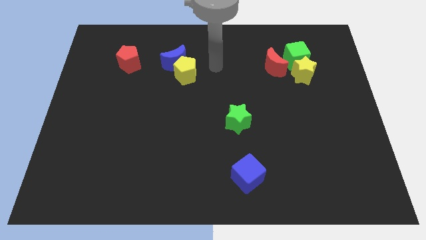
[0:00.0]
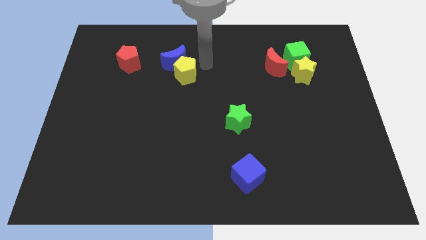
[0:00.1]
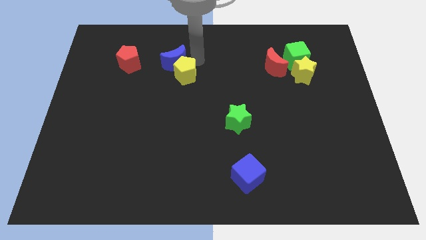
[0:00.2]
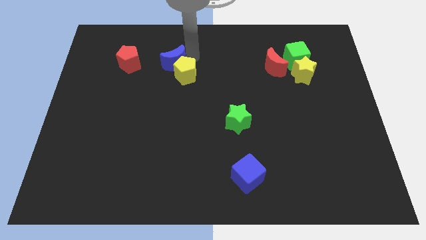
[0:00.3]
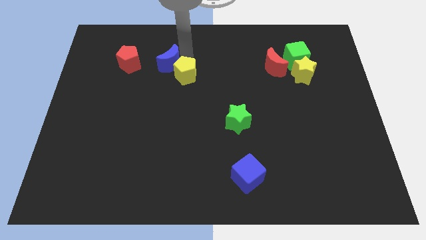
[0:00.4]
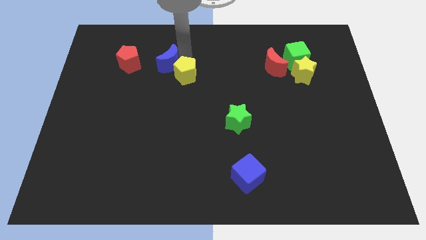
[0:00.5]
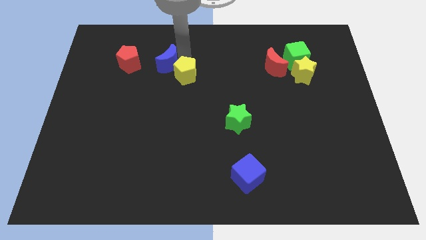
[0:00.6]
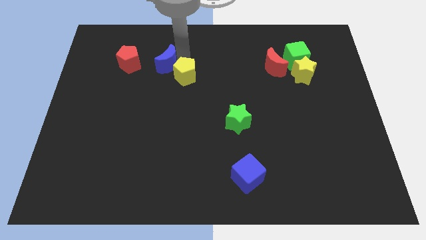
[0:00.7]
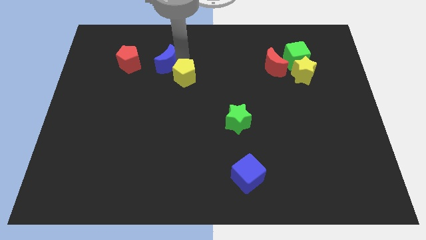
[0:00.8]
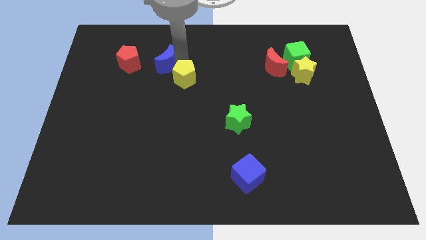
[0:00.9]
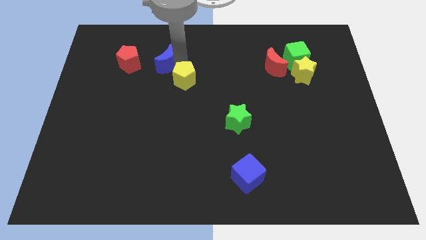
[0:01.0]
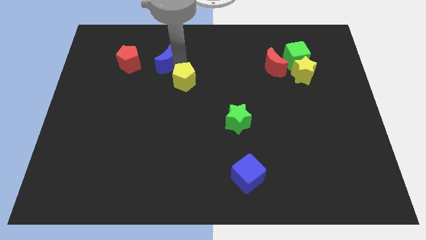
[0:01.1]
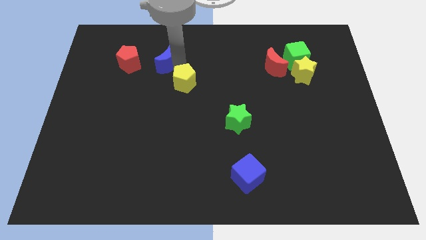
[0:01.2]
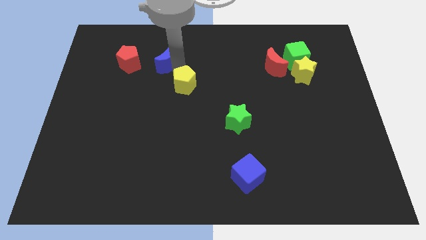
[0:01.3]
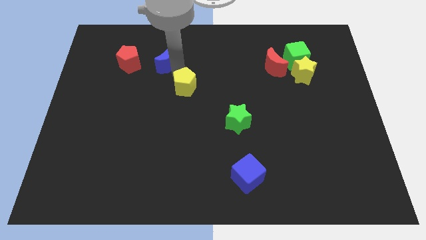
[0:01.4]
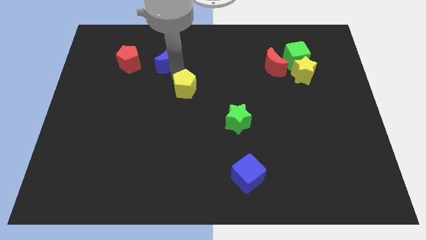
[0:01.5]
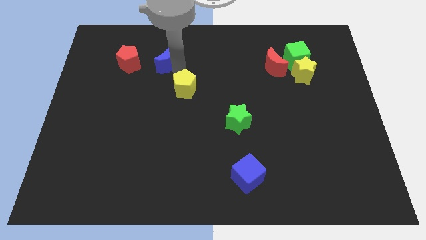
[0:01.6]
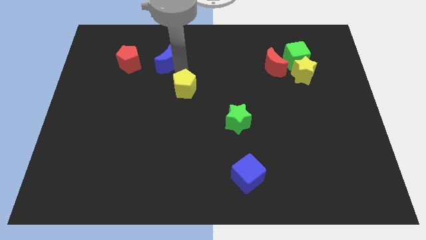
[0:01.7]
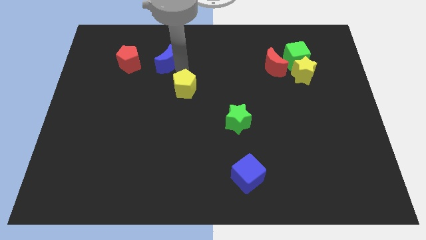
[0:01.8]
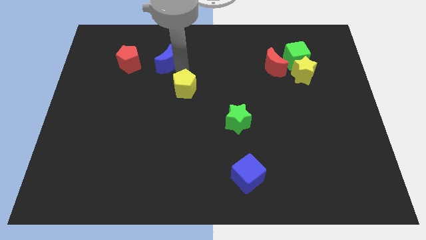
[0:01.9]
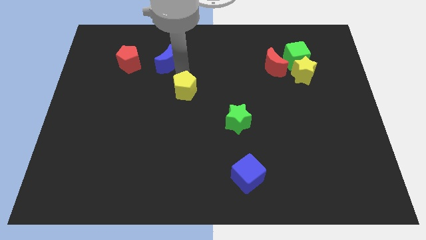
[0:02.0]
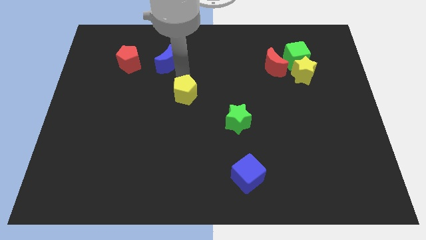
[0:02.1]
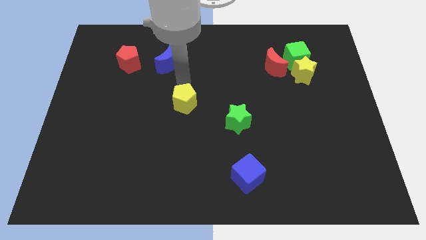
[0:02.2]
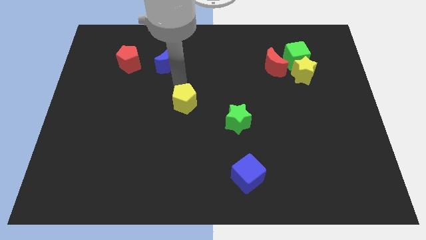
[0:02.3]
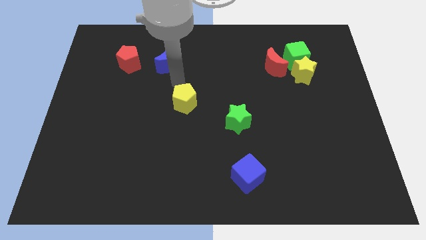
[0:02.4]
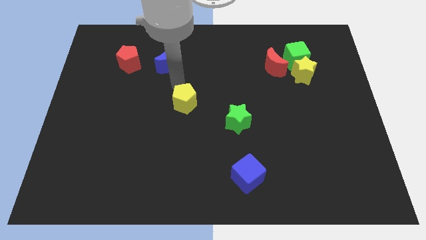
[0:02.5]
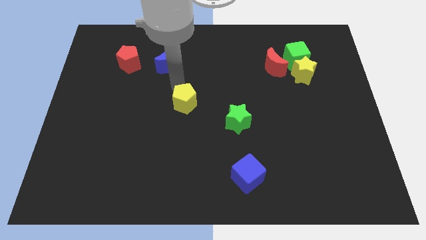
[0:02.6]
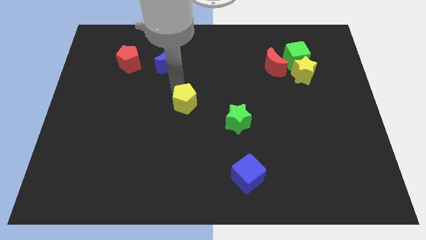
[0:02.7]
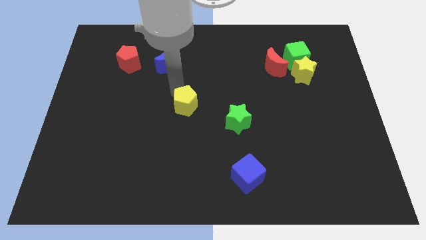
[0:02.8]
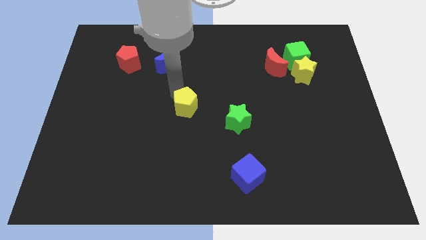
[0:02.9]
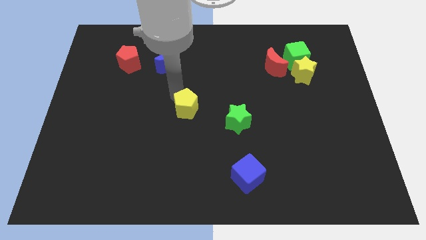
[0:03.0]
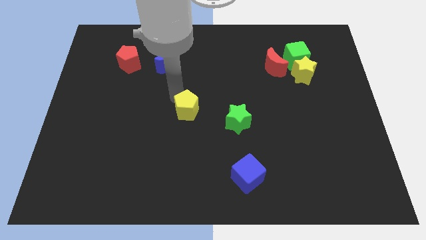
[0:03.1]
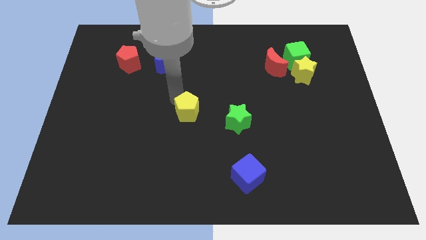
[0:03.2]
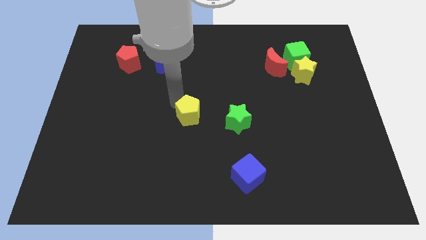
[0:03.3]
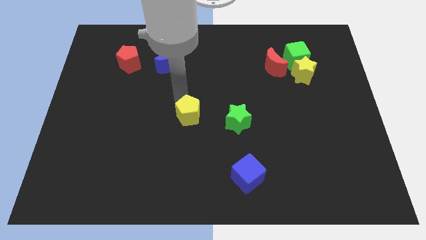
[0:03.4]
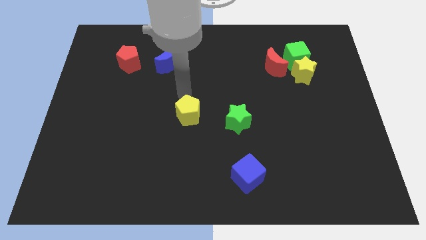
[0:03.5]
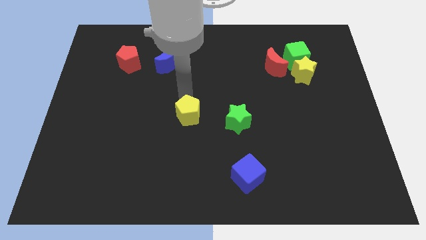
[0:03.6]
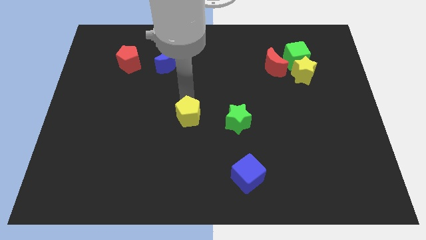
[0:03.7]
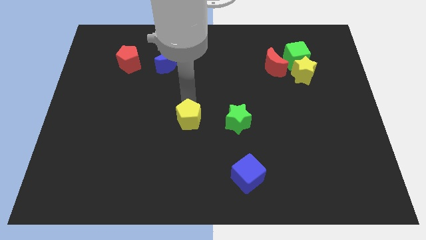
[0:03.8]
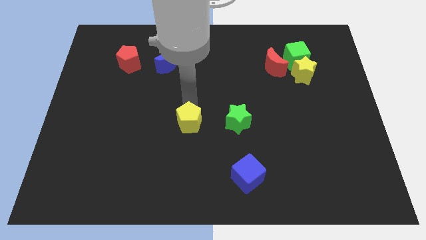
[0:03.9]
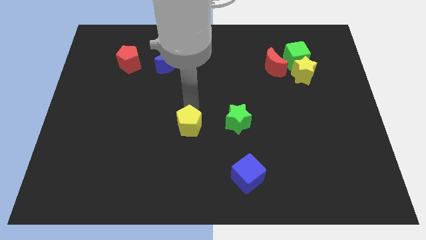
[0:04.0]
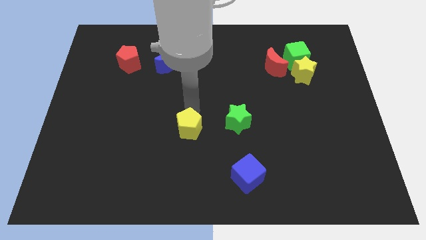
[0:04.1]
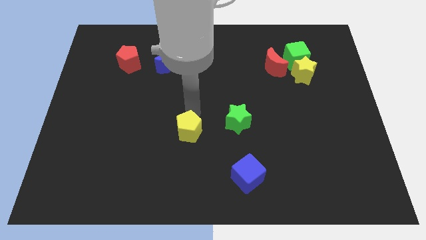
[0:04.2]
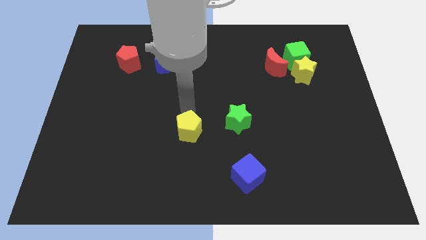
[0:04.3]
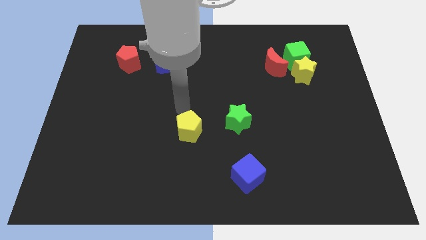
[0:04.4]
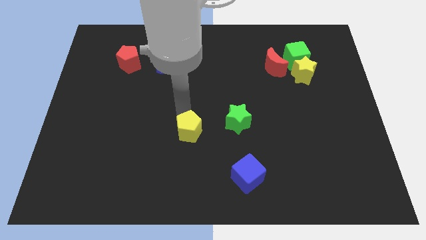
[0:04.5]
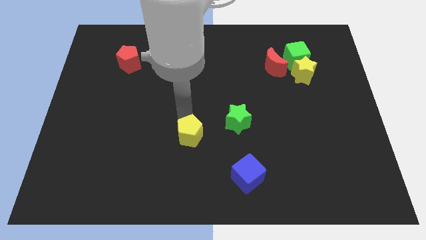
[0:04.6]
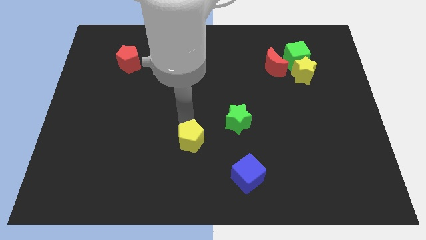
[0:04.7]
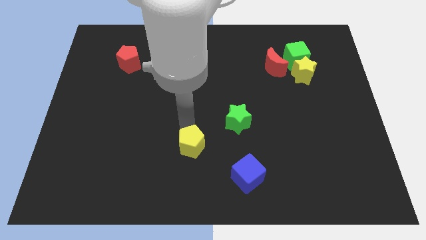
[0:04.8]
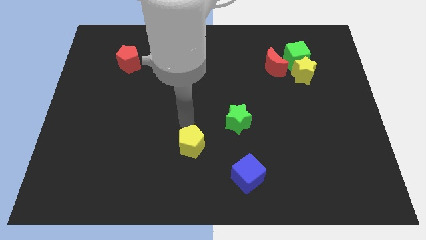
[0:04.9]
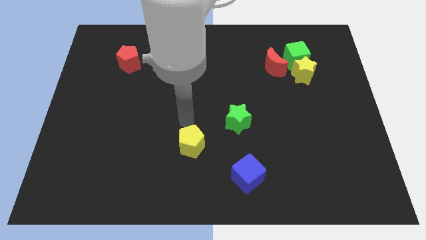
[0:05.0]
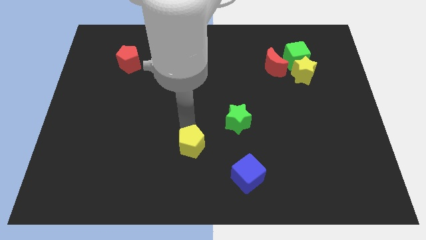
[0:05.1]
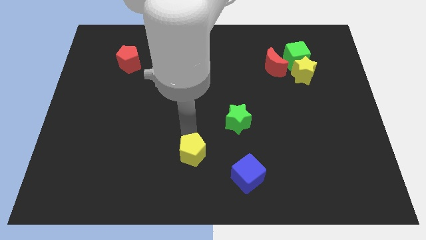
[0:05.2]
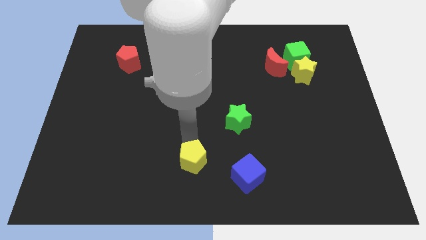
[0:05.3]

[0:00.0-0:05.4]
move the yellow pentagon left of the blue cube

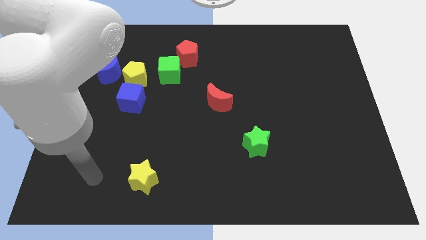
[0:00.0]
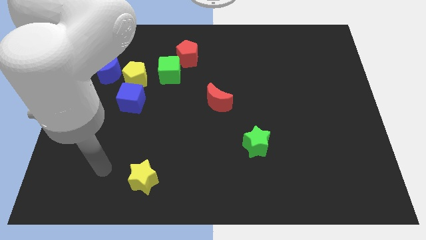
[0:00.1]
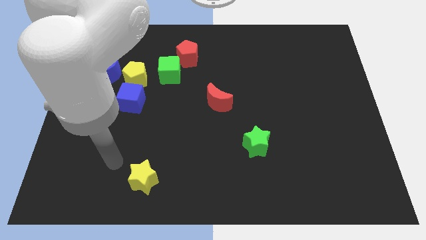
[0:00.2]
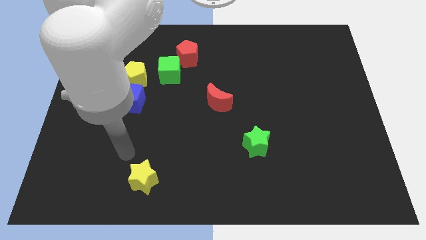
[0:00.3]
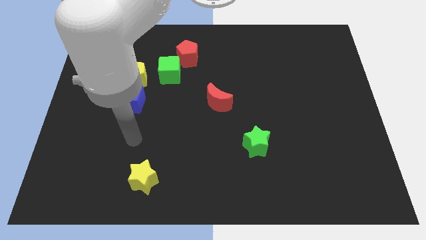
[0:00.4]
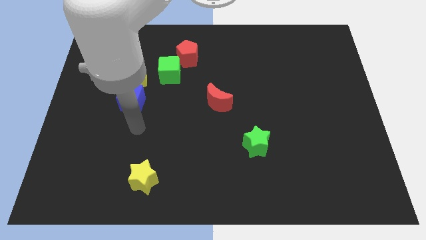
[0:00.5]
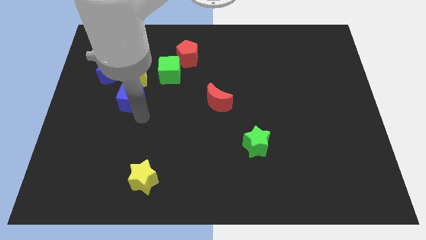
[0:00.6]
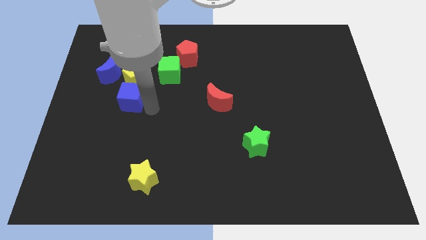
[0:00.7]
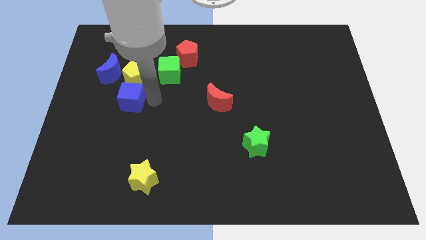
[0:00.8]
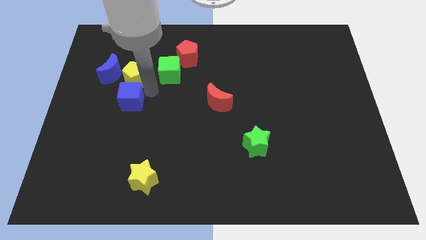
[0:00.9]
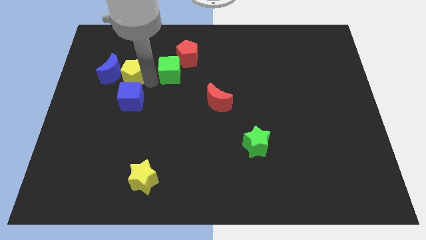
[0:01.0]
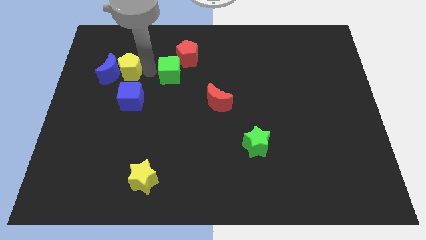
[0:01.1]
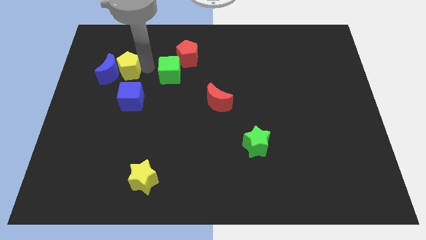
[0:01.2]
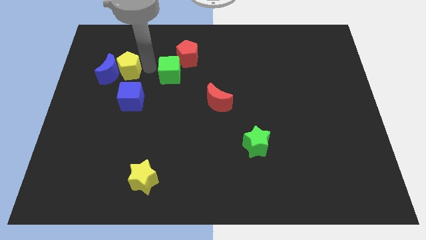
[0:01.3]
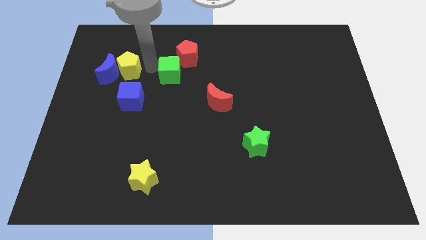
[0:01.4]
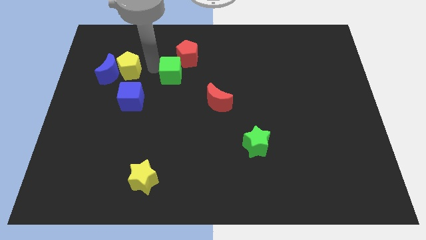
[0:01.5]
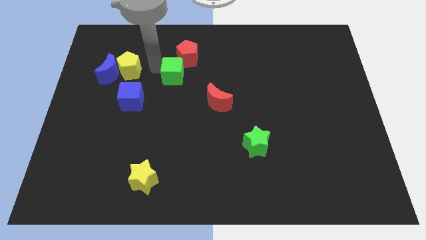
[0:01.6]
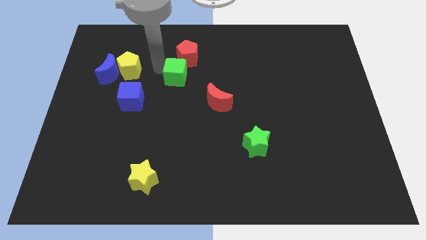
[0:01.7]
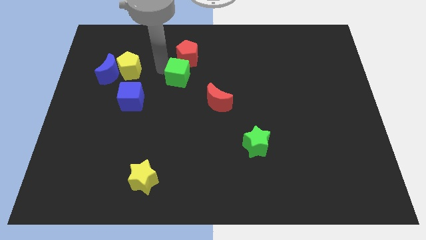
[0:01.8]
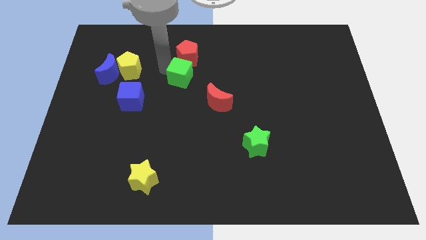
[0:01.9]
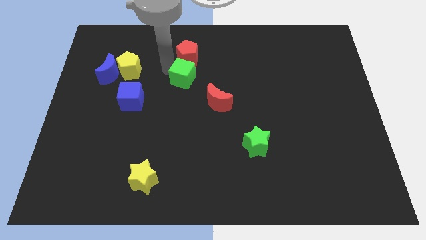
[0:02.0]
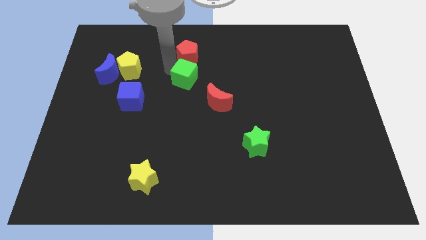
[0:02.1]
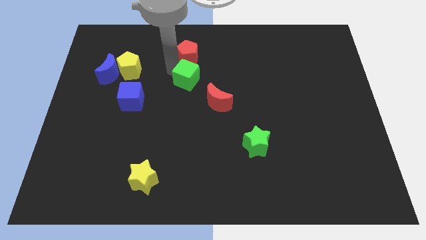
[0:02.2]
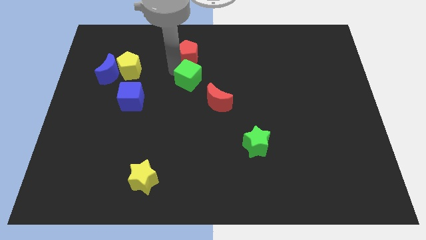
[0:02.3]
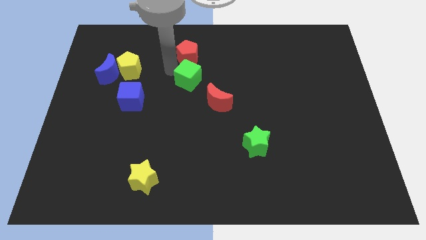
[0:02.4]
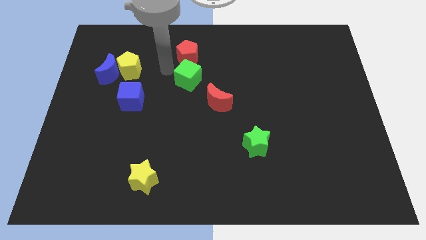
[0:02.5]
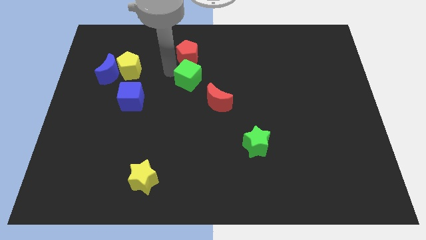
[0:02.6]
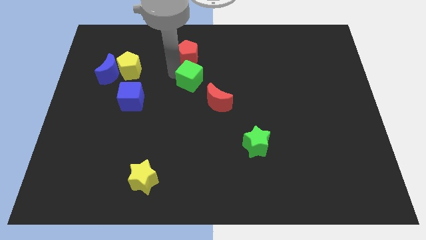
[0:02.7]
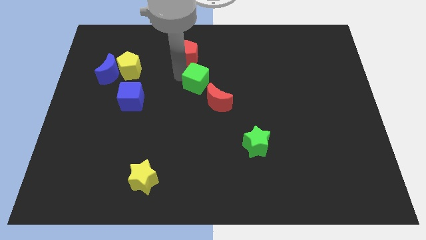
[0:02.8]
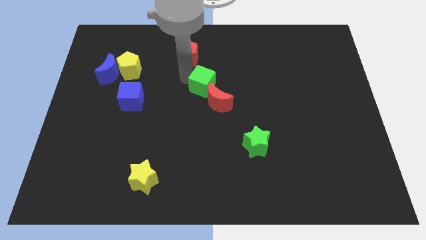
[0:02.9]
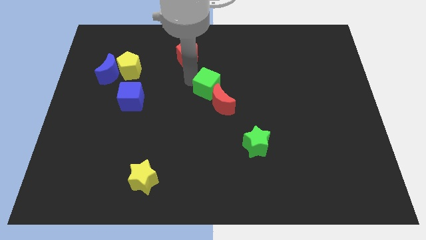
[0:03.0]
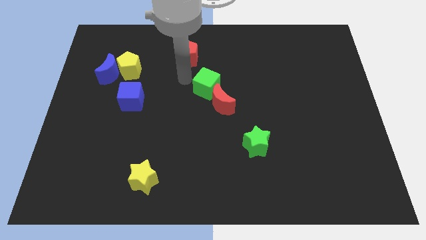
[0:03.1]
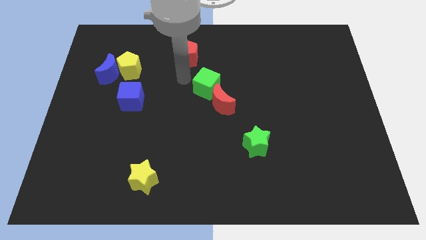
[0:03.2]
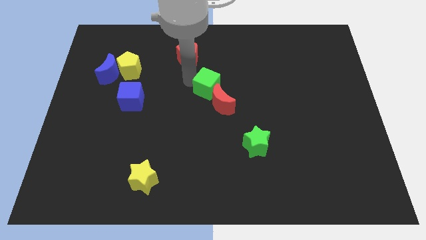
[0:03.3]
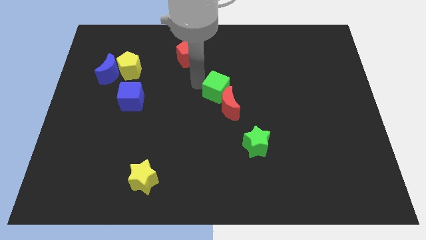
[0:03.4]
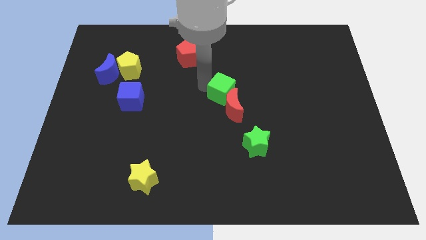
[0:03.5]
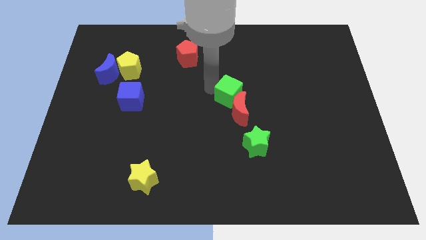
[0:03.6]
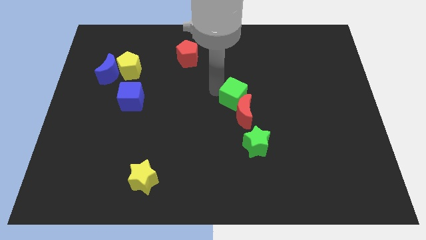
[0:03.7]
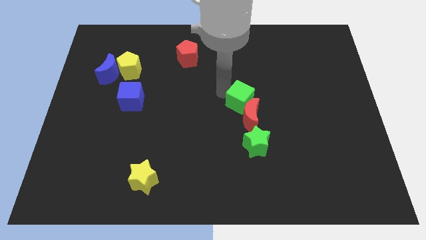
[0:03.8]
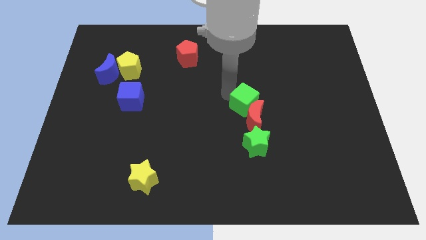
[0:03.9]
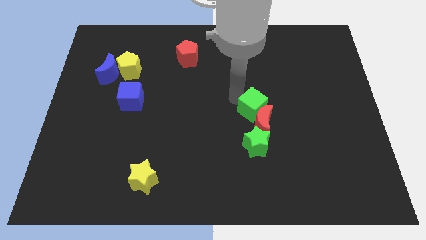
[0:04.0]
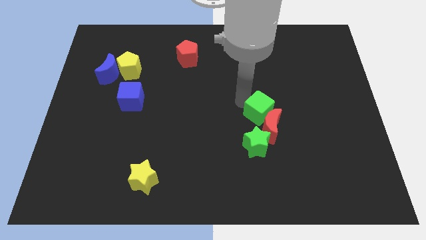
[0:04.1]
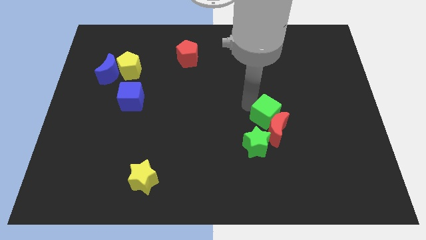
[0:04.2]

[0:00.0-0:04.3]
push the green cube diagonally up and to the right of the green star
